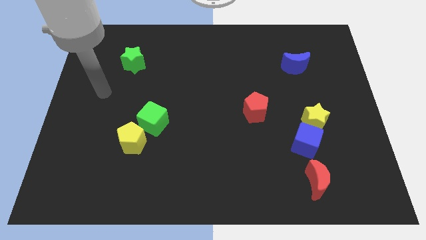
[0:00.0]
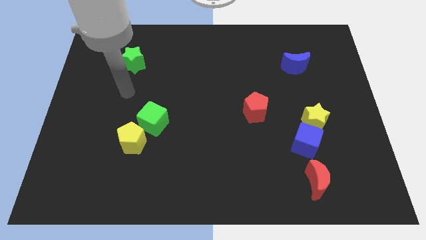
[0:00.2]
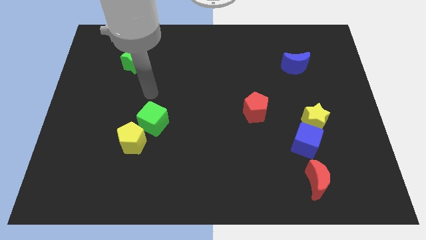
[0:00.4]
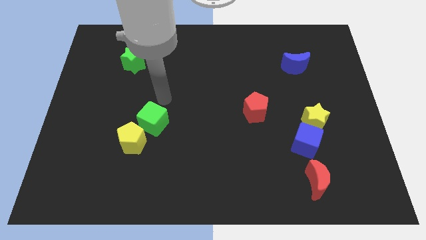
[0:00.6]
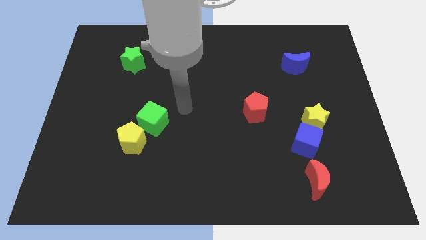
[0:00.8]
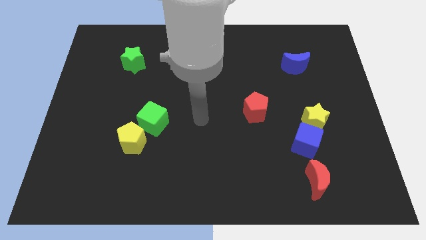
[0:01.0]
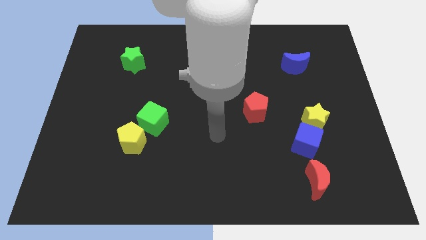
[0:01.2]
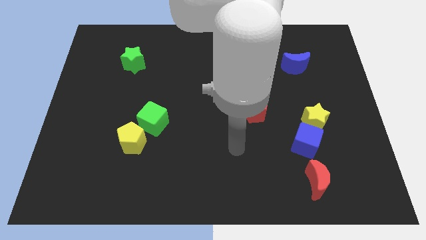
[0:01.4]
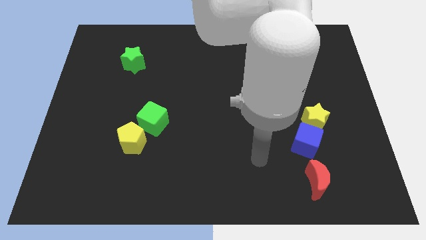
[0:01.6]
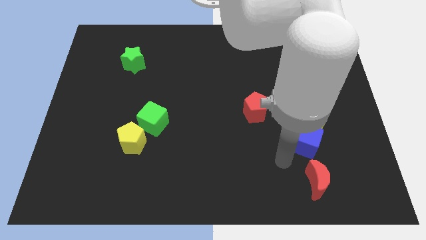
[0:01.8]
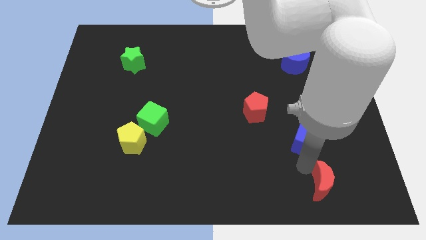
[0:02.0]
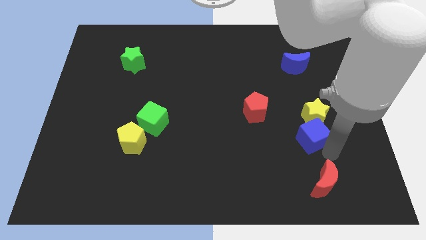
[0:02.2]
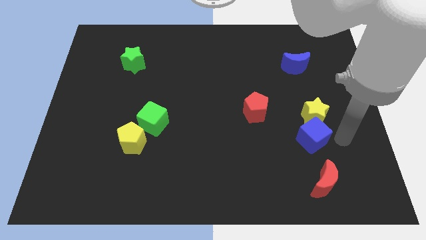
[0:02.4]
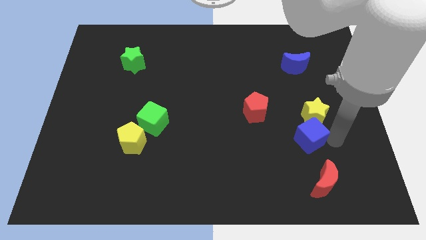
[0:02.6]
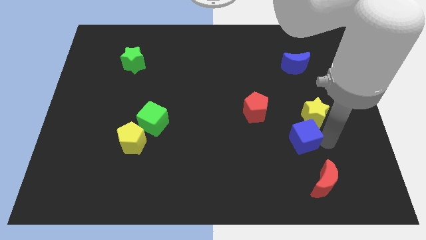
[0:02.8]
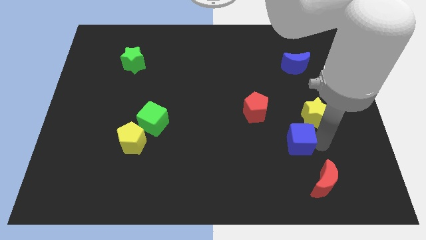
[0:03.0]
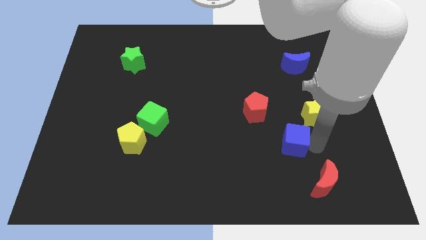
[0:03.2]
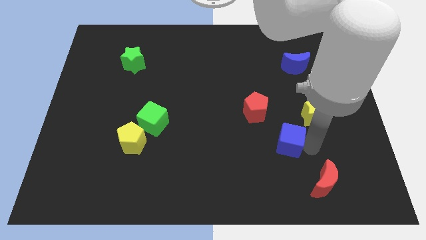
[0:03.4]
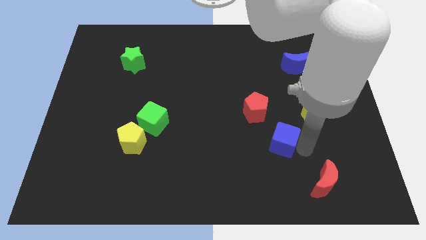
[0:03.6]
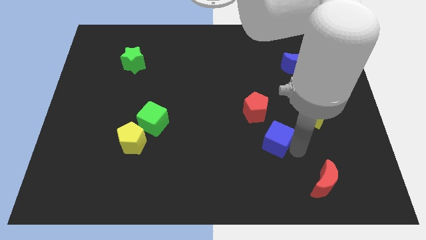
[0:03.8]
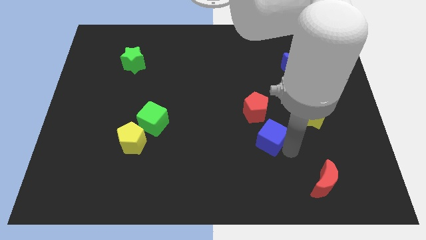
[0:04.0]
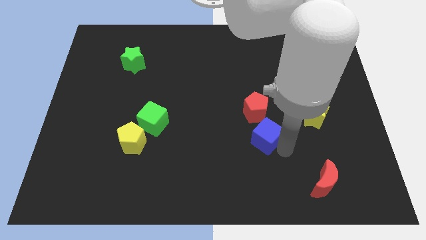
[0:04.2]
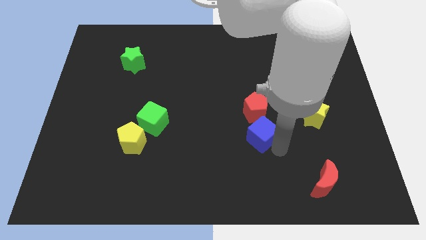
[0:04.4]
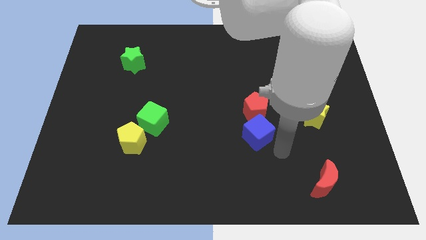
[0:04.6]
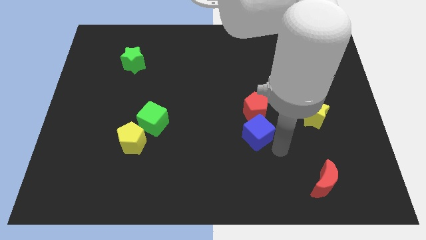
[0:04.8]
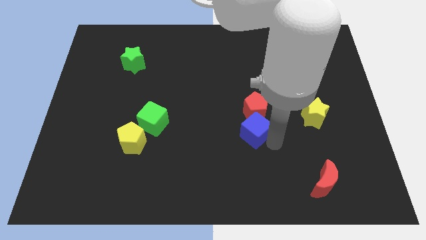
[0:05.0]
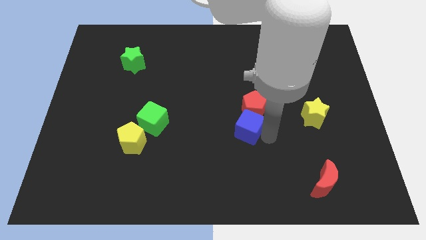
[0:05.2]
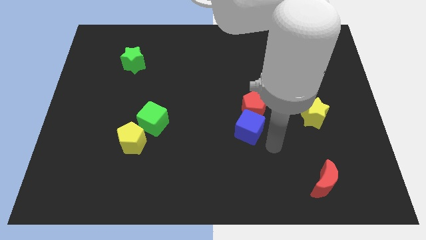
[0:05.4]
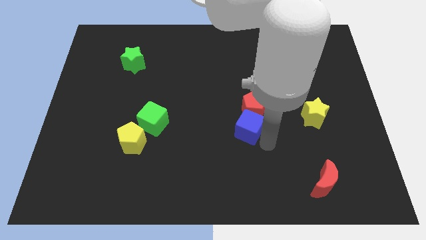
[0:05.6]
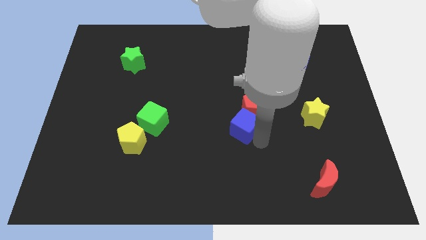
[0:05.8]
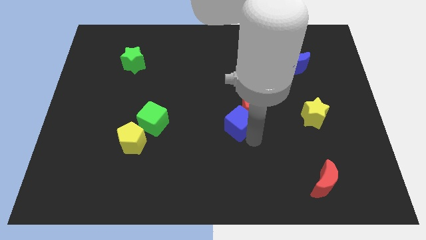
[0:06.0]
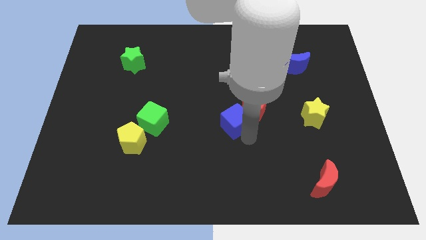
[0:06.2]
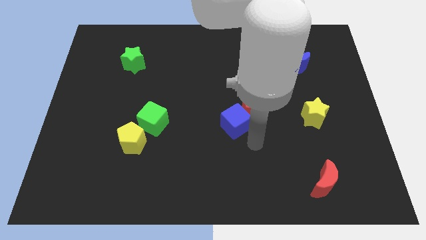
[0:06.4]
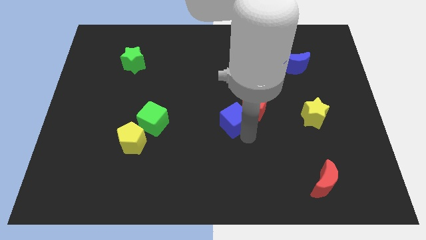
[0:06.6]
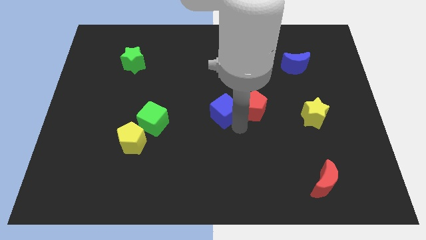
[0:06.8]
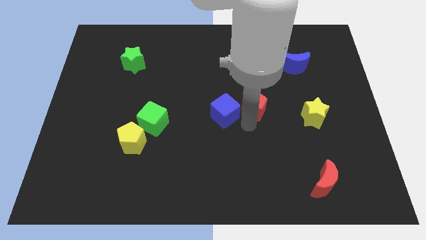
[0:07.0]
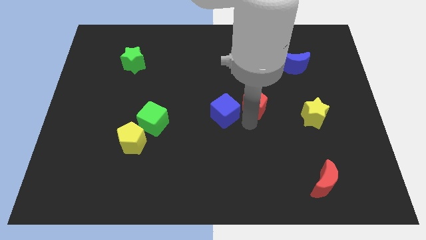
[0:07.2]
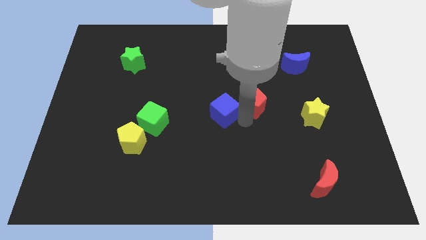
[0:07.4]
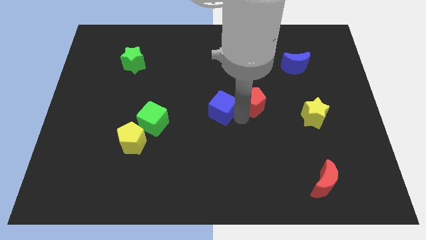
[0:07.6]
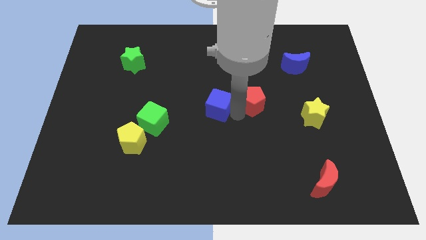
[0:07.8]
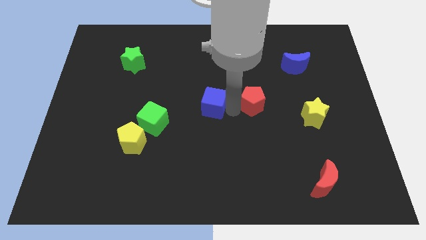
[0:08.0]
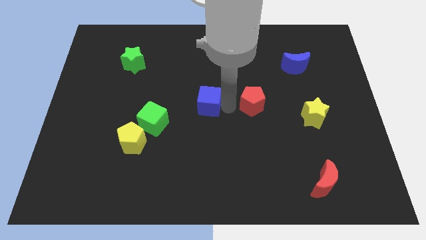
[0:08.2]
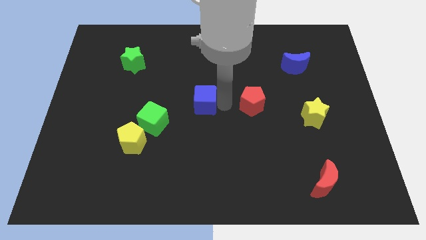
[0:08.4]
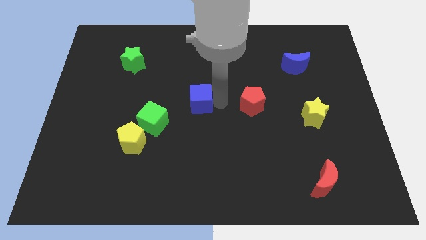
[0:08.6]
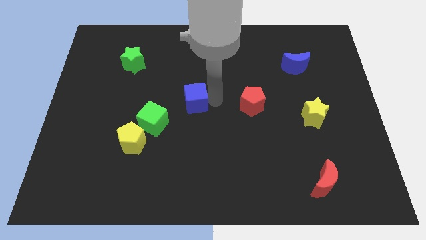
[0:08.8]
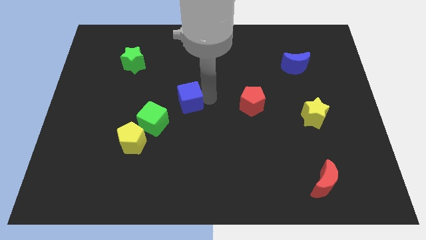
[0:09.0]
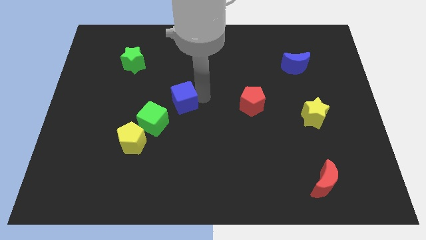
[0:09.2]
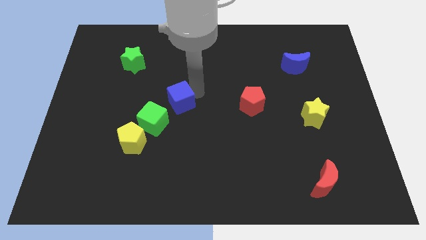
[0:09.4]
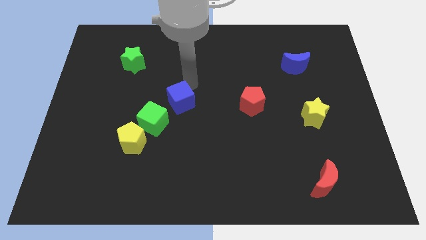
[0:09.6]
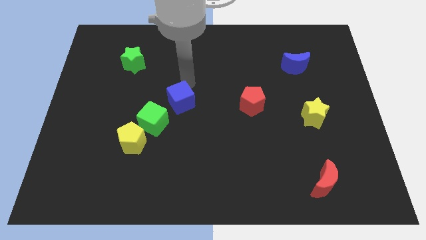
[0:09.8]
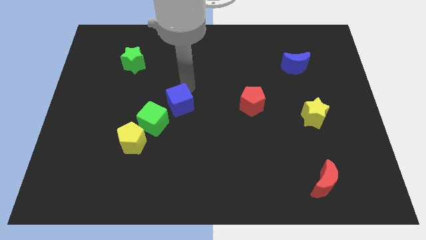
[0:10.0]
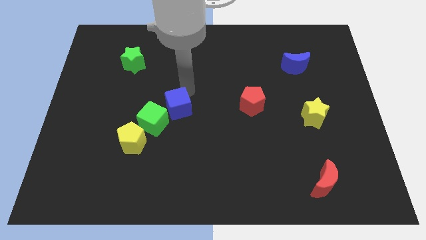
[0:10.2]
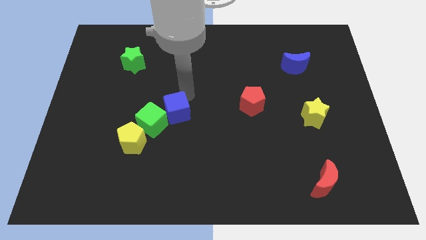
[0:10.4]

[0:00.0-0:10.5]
move the blue cube towards the green cube
